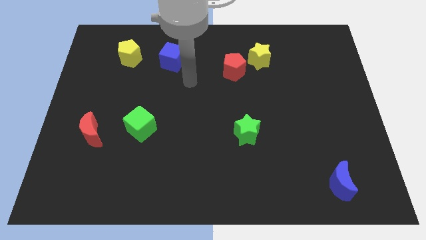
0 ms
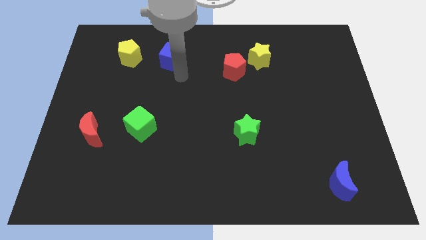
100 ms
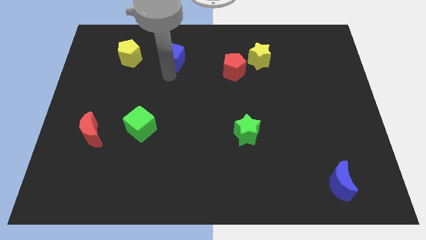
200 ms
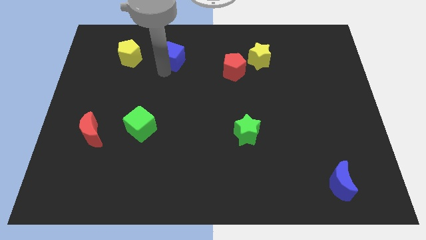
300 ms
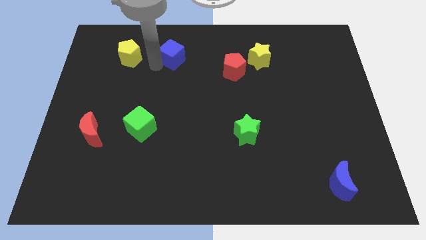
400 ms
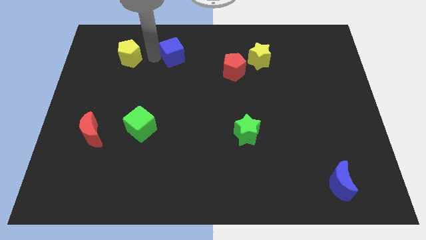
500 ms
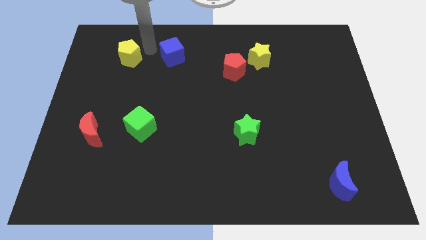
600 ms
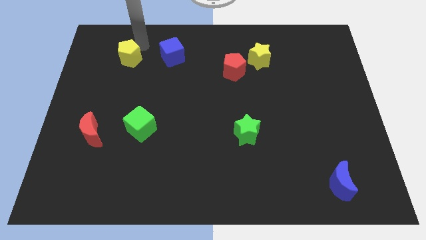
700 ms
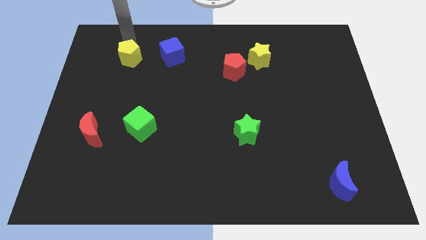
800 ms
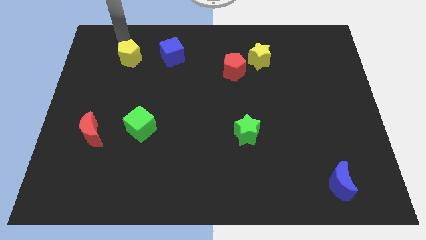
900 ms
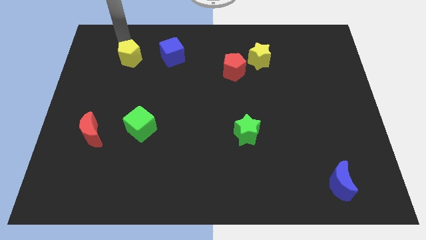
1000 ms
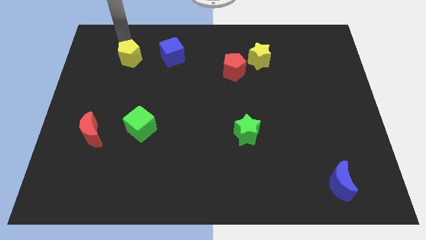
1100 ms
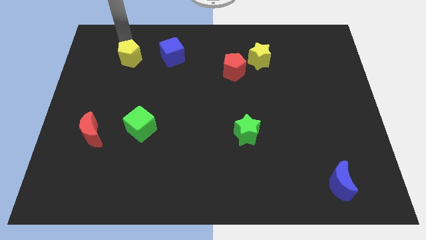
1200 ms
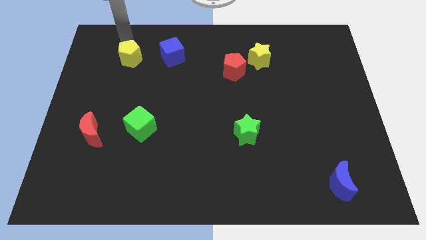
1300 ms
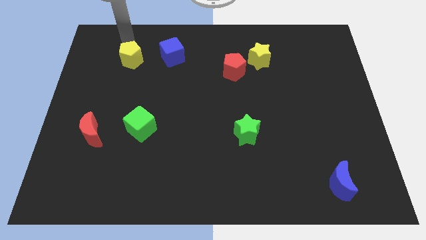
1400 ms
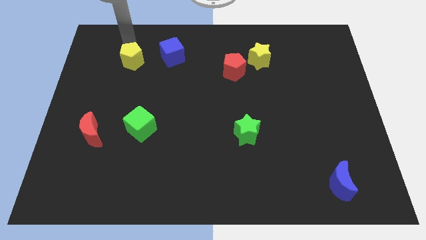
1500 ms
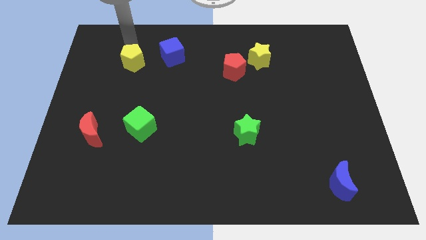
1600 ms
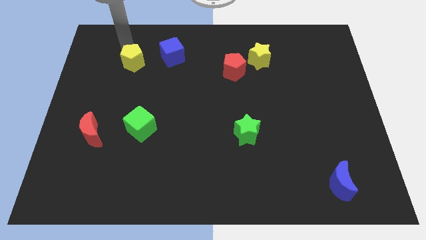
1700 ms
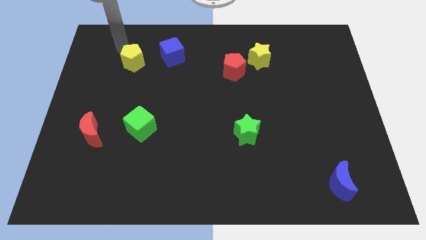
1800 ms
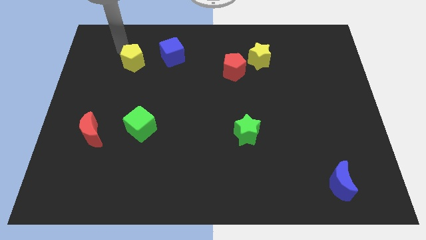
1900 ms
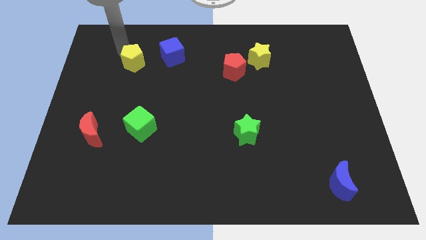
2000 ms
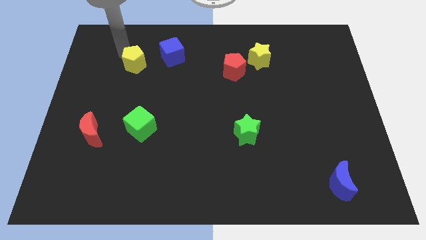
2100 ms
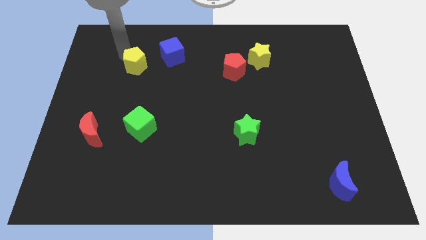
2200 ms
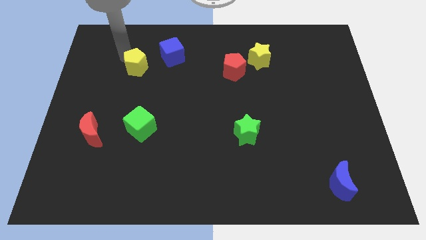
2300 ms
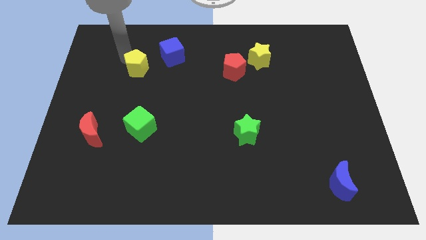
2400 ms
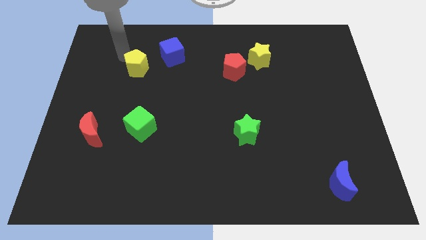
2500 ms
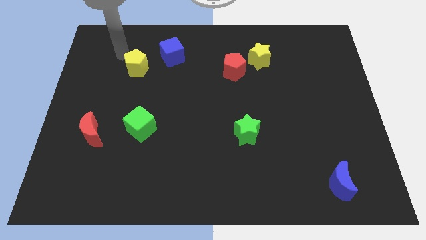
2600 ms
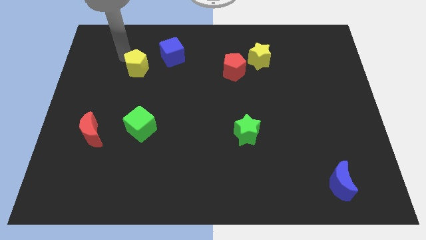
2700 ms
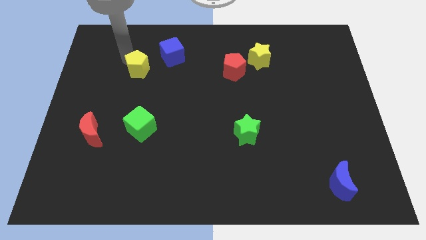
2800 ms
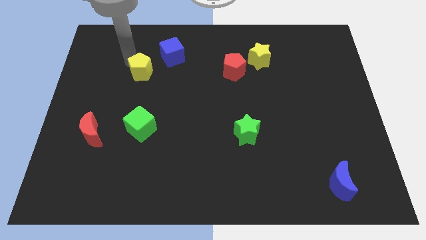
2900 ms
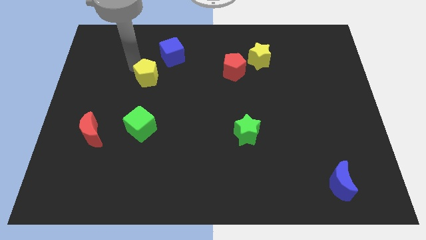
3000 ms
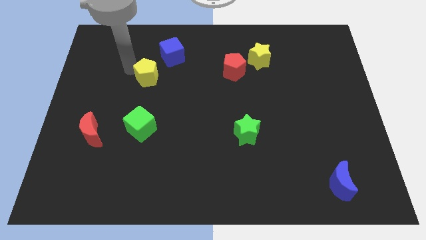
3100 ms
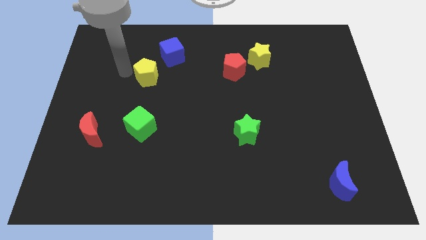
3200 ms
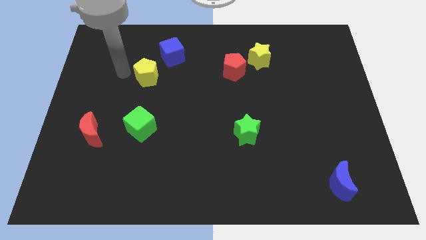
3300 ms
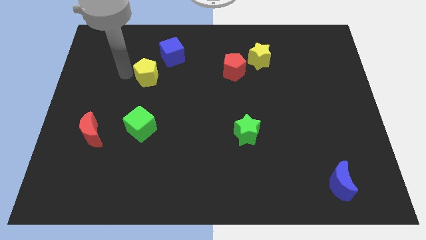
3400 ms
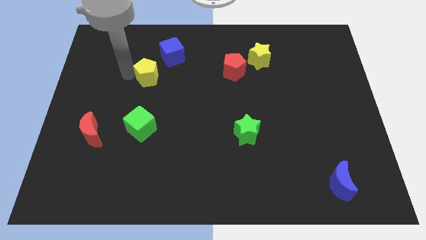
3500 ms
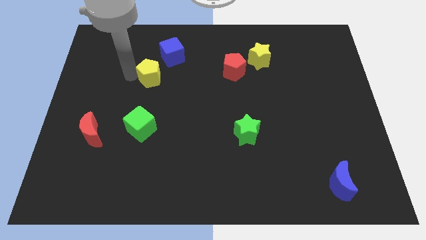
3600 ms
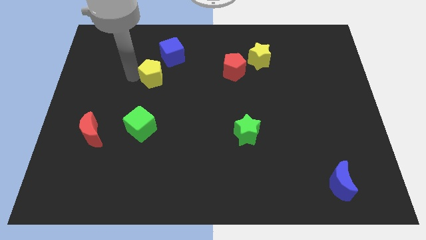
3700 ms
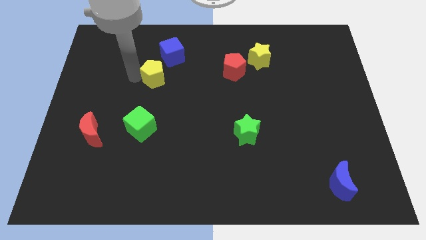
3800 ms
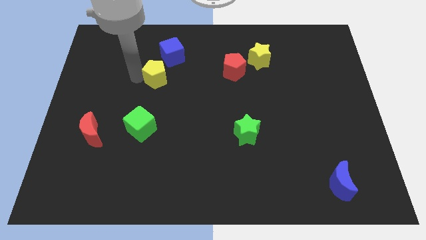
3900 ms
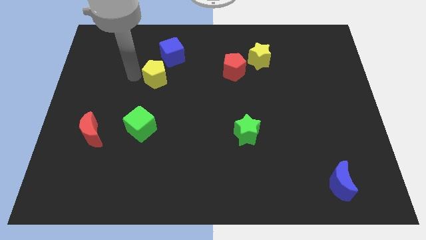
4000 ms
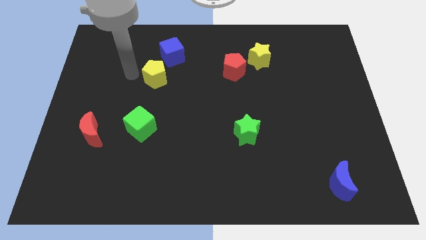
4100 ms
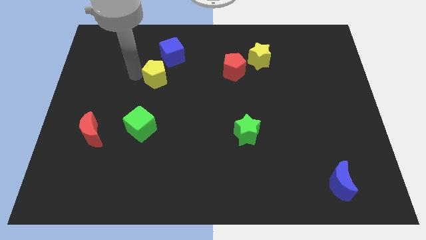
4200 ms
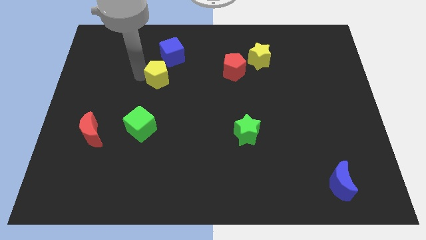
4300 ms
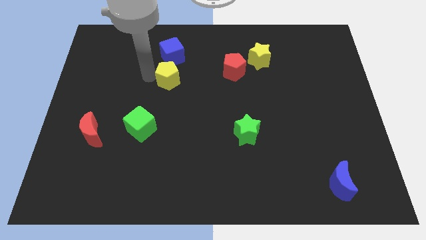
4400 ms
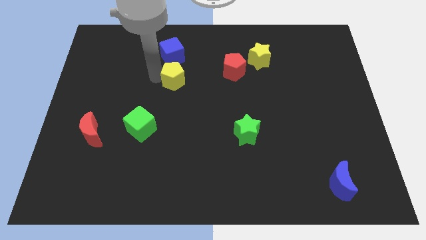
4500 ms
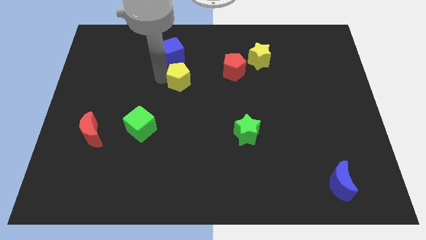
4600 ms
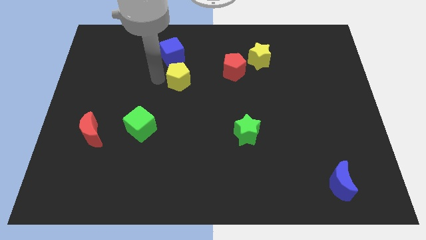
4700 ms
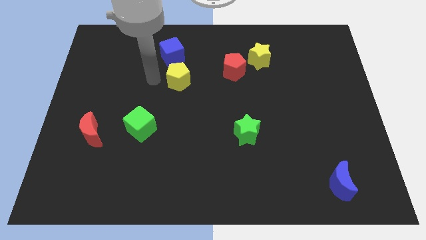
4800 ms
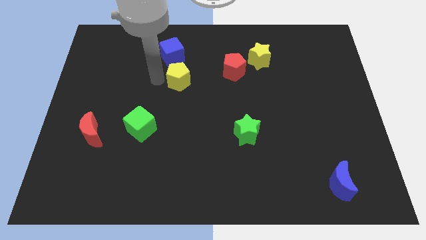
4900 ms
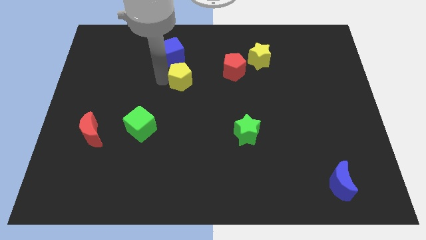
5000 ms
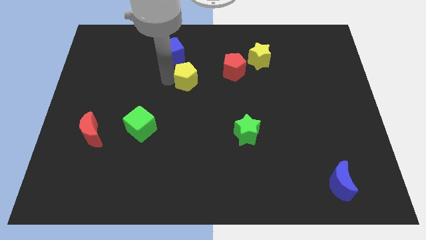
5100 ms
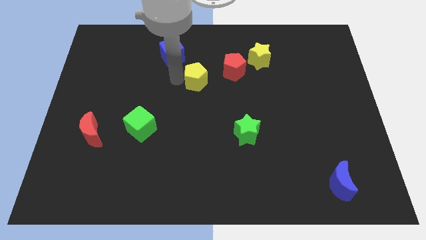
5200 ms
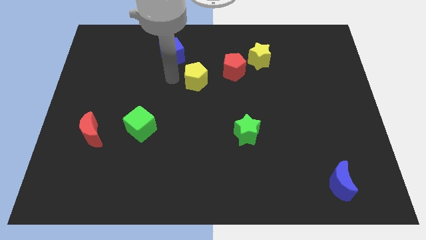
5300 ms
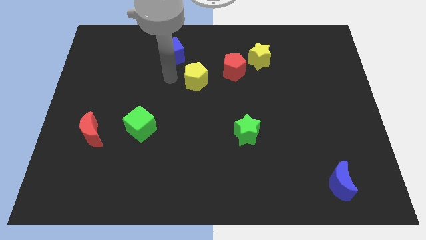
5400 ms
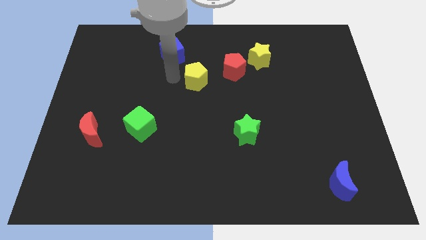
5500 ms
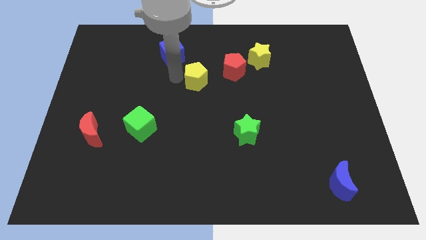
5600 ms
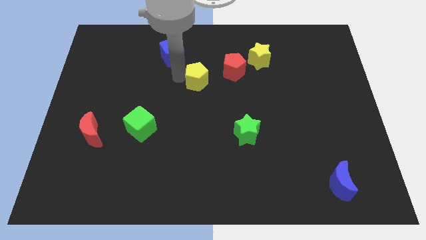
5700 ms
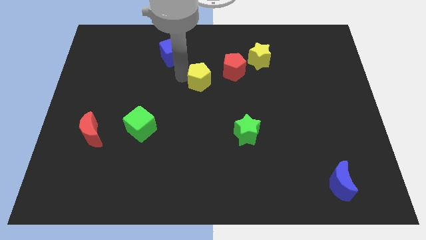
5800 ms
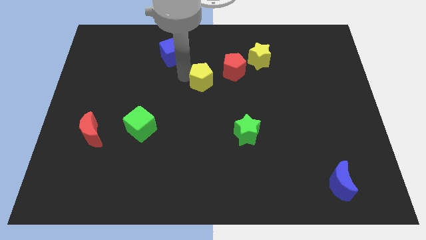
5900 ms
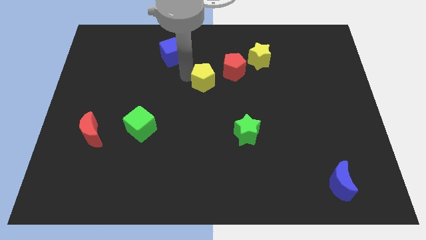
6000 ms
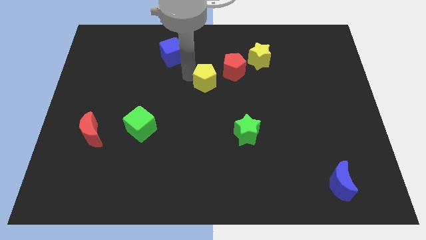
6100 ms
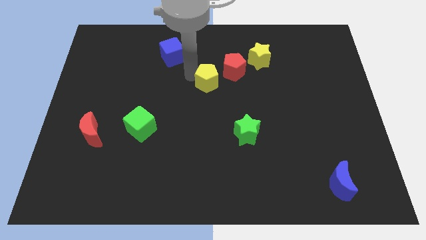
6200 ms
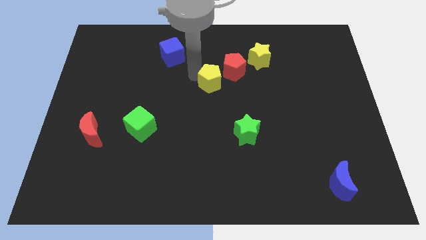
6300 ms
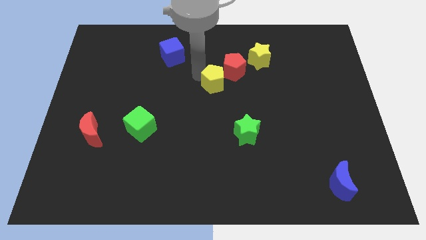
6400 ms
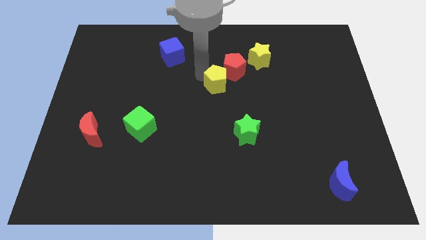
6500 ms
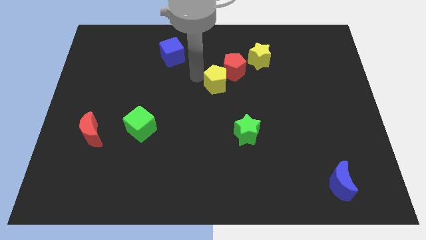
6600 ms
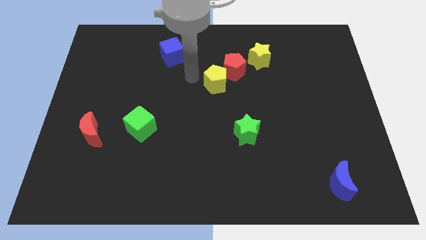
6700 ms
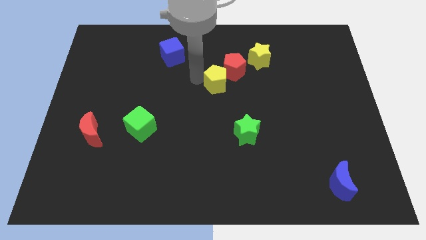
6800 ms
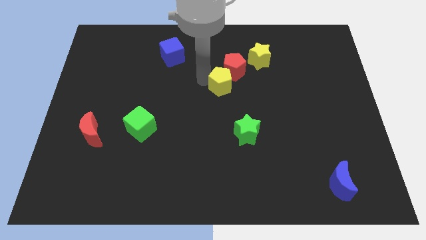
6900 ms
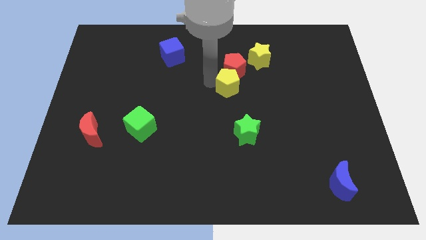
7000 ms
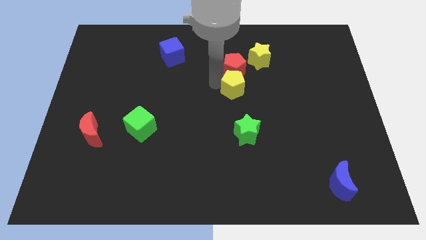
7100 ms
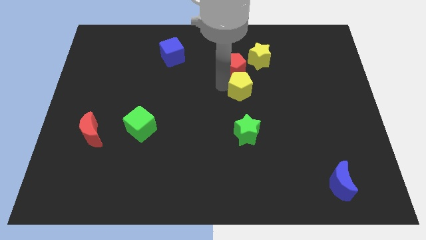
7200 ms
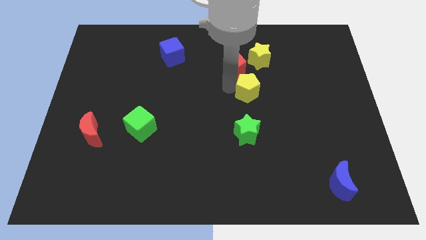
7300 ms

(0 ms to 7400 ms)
slide the yellow pentagon to the bottom side of the yellow star
